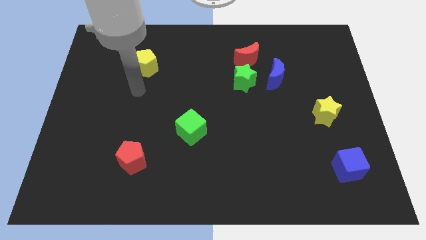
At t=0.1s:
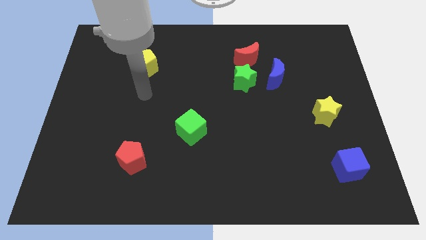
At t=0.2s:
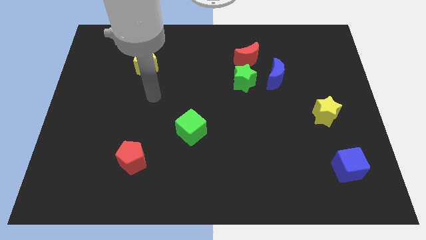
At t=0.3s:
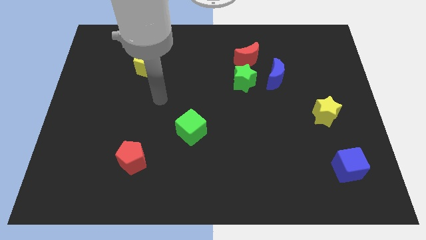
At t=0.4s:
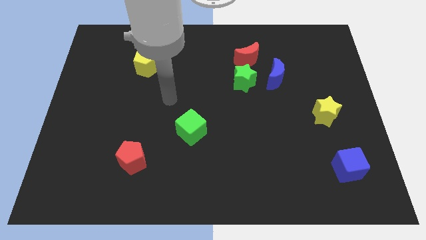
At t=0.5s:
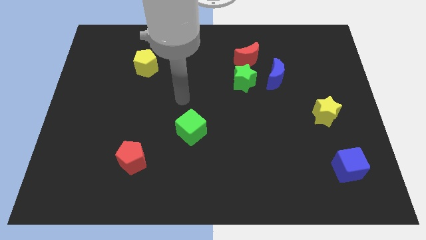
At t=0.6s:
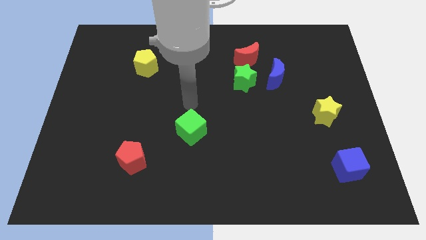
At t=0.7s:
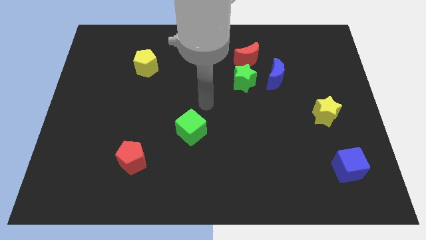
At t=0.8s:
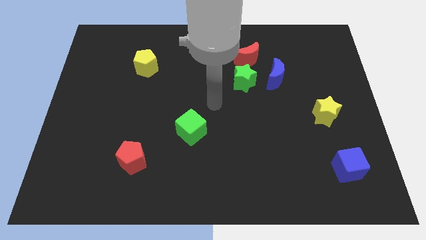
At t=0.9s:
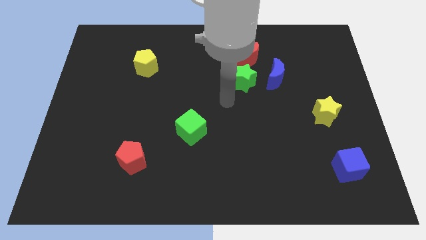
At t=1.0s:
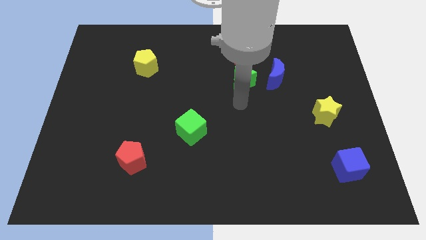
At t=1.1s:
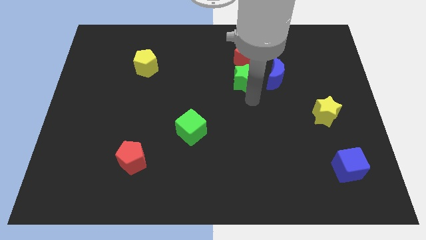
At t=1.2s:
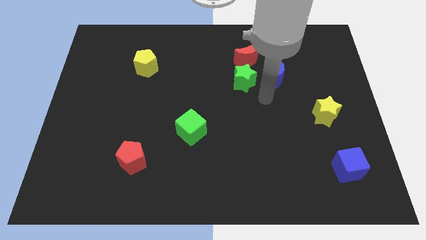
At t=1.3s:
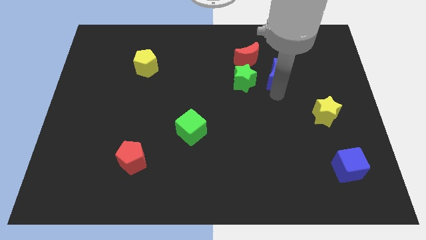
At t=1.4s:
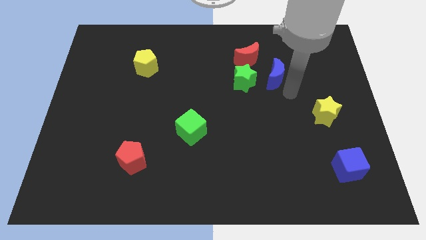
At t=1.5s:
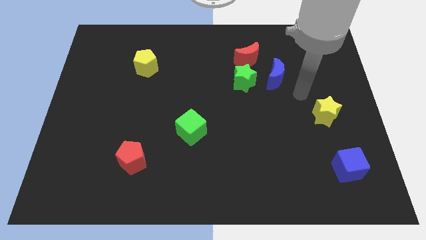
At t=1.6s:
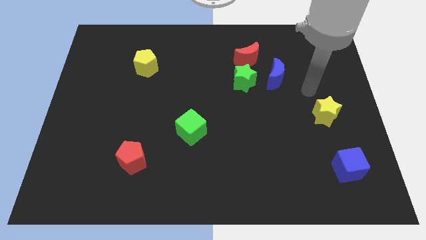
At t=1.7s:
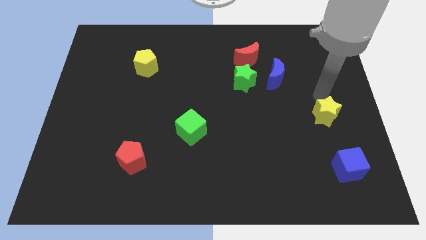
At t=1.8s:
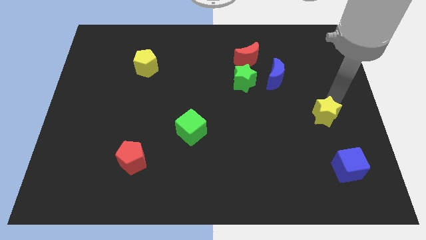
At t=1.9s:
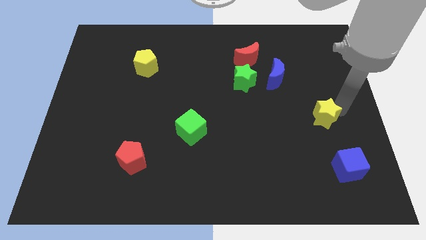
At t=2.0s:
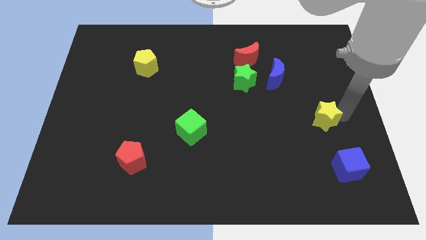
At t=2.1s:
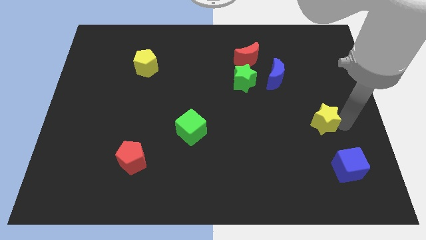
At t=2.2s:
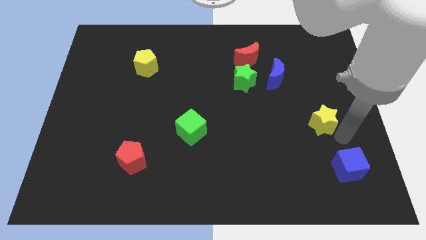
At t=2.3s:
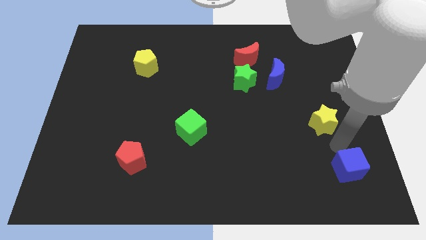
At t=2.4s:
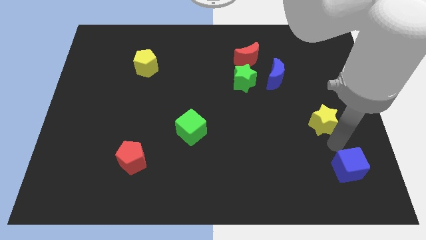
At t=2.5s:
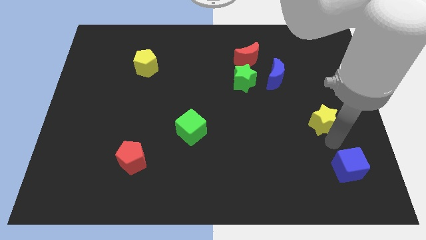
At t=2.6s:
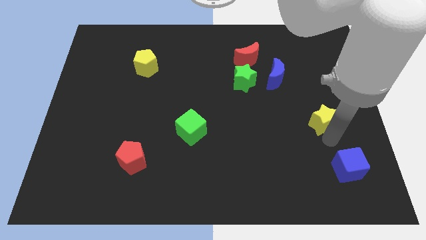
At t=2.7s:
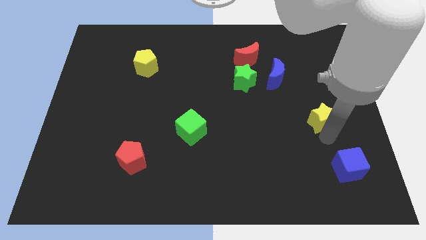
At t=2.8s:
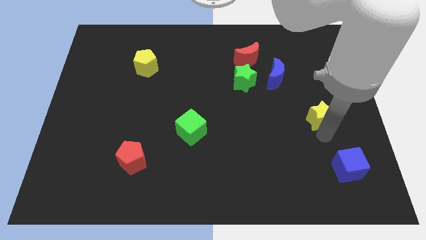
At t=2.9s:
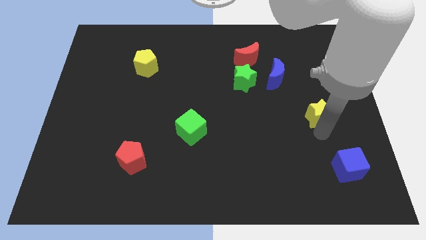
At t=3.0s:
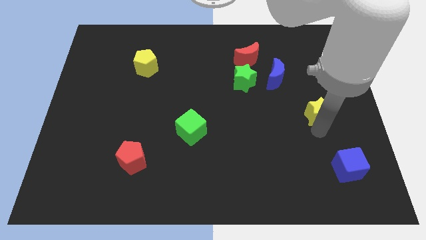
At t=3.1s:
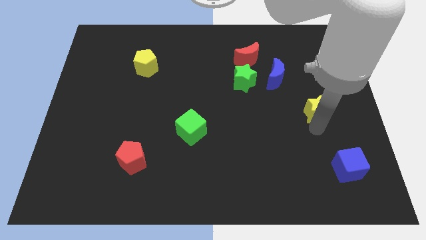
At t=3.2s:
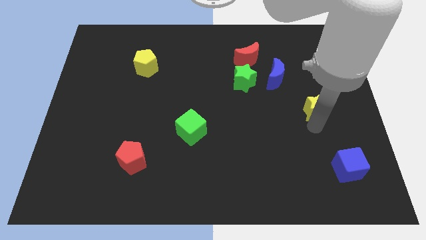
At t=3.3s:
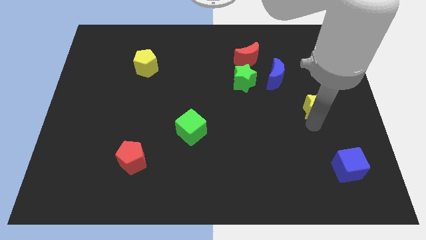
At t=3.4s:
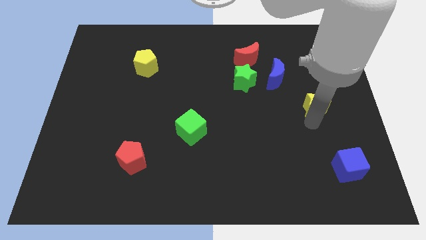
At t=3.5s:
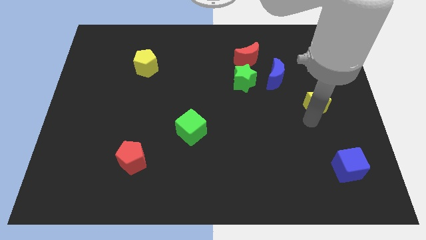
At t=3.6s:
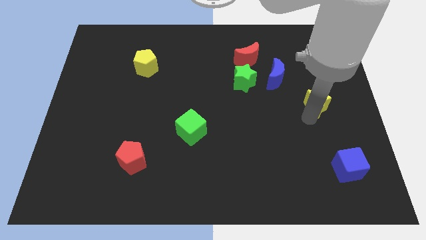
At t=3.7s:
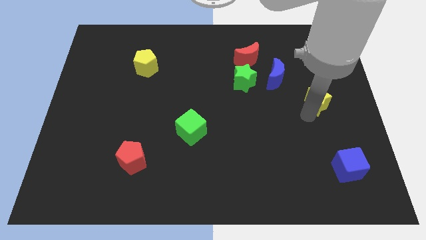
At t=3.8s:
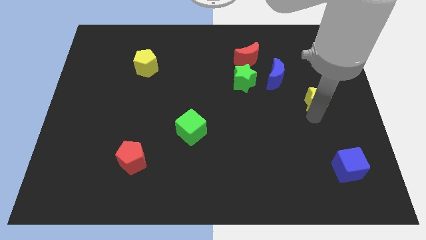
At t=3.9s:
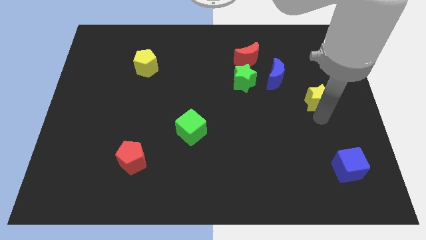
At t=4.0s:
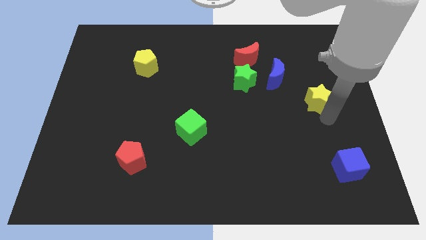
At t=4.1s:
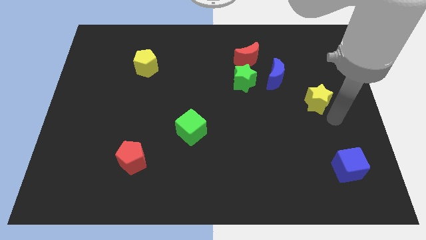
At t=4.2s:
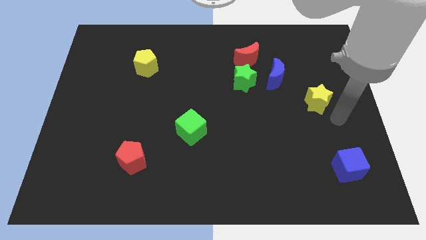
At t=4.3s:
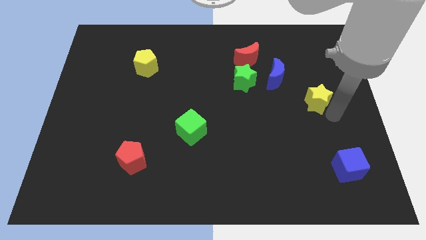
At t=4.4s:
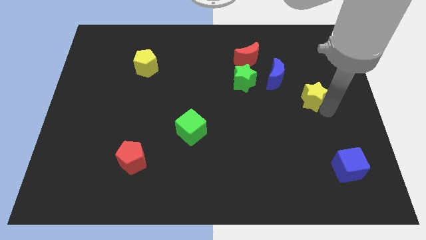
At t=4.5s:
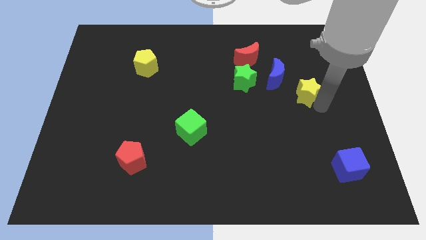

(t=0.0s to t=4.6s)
push the yellow star a little bit diagonally up and to the left

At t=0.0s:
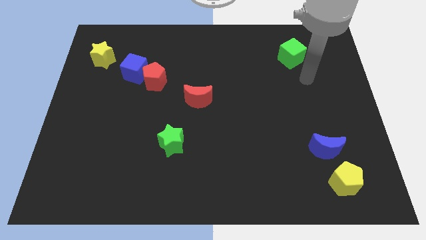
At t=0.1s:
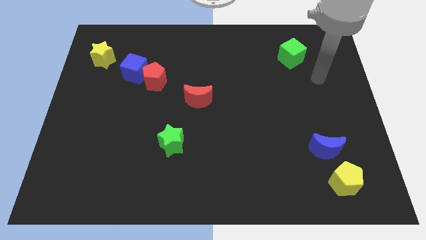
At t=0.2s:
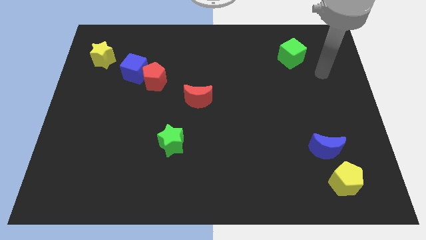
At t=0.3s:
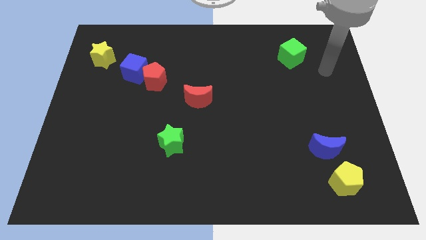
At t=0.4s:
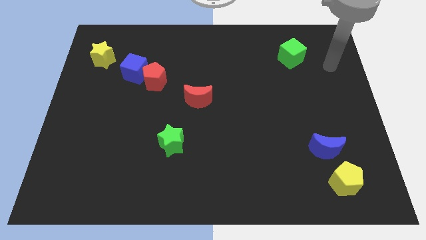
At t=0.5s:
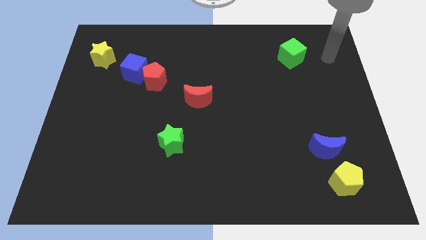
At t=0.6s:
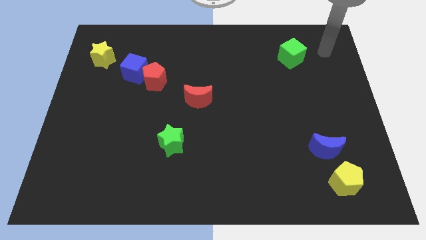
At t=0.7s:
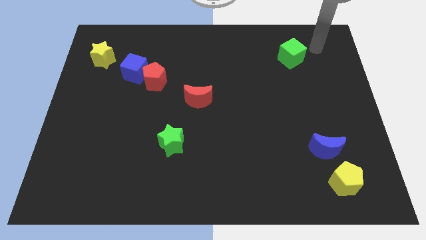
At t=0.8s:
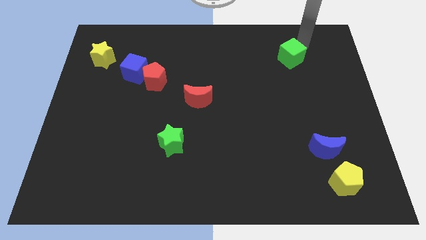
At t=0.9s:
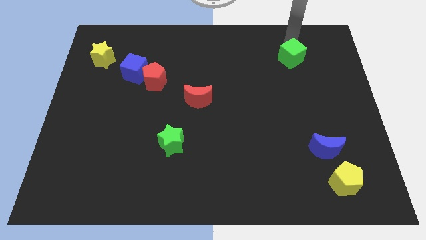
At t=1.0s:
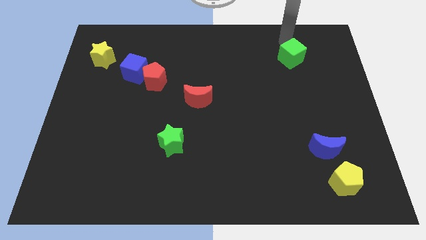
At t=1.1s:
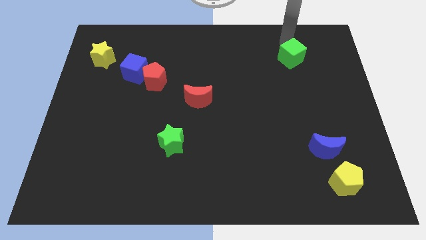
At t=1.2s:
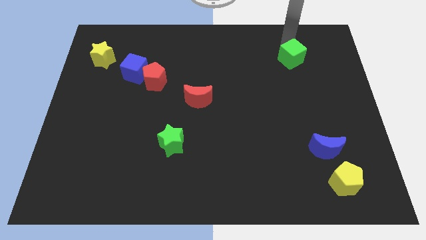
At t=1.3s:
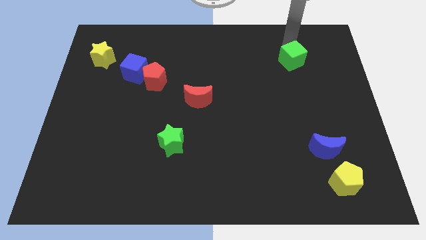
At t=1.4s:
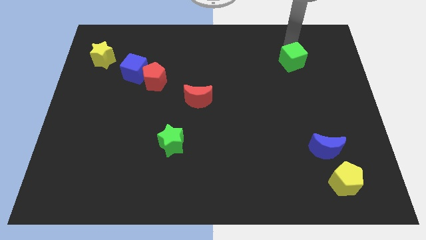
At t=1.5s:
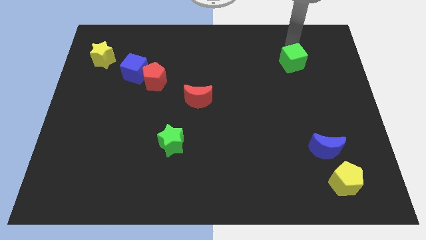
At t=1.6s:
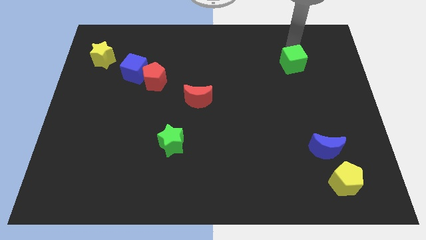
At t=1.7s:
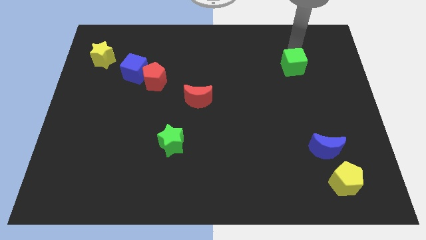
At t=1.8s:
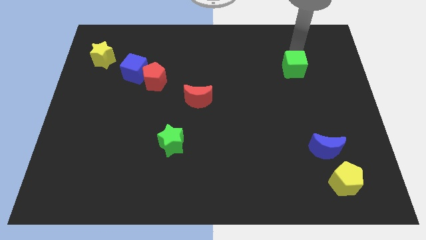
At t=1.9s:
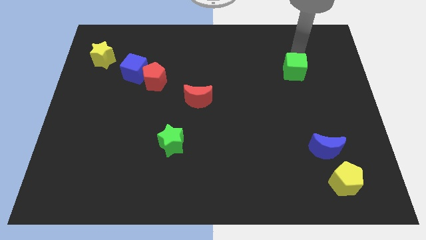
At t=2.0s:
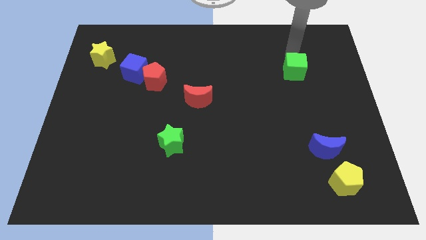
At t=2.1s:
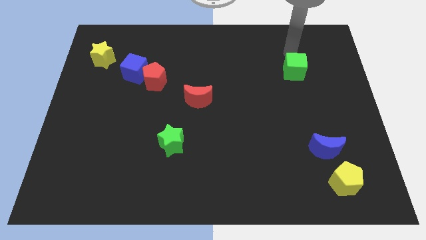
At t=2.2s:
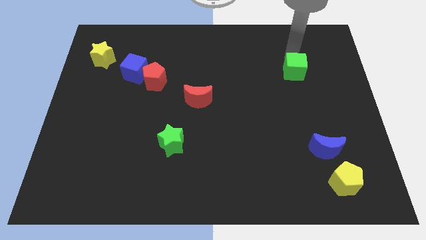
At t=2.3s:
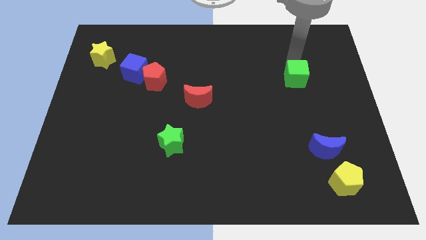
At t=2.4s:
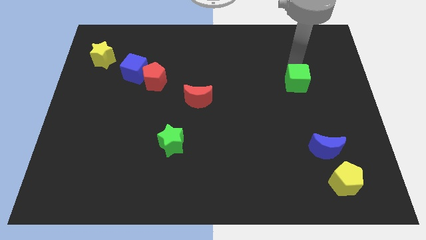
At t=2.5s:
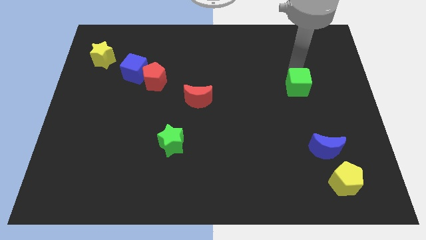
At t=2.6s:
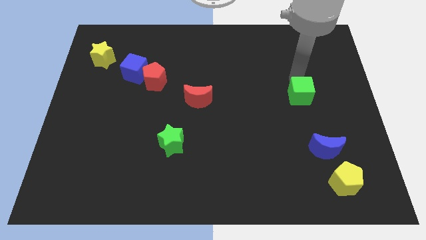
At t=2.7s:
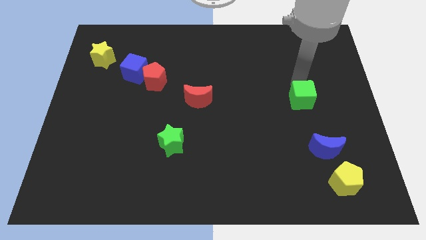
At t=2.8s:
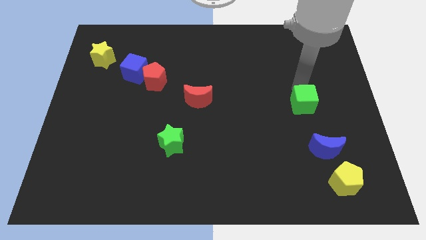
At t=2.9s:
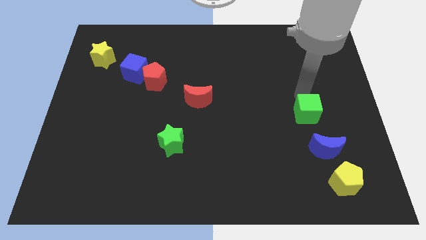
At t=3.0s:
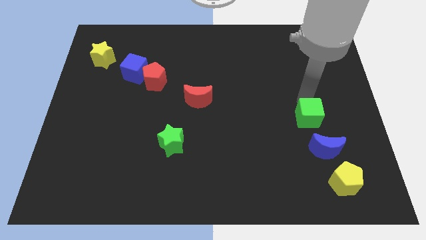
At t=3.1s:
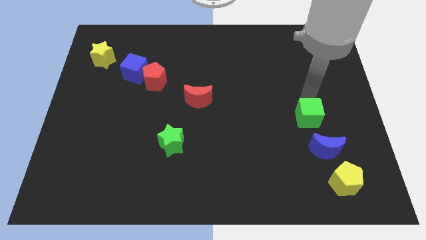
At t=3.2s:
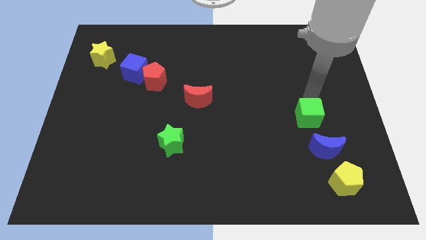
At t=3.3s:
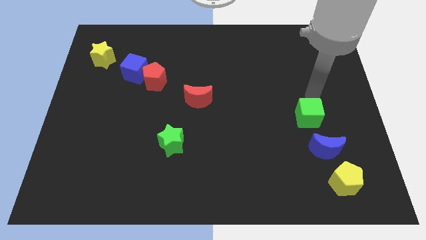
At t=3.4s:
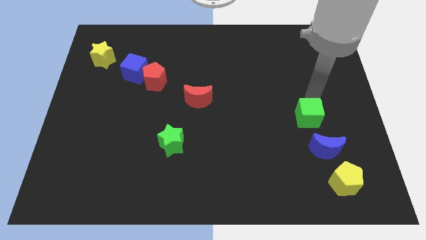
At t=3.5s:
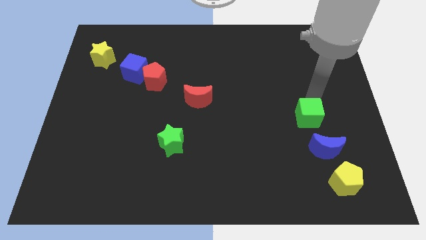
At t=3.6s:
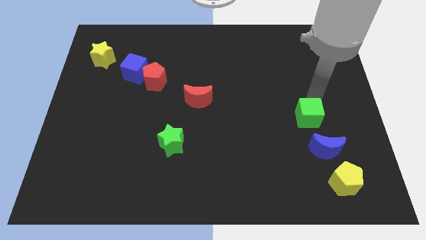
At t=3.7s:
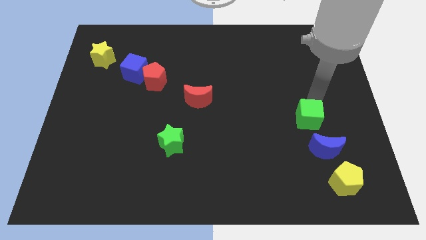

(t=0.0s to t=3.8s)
push the green cube downwards
